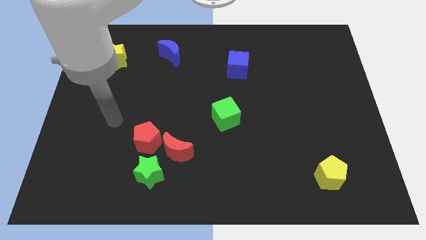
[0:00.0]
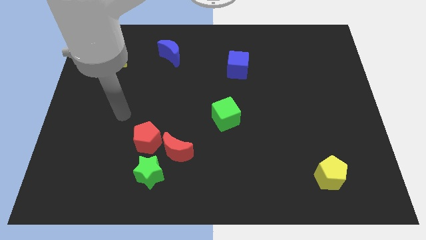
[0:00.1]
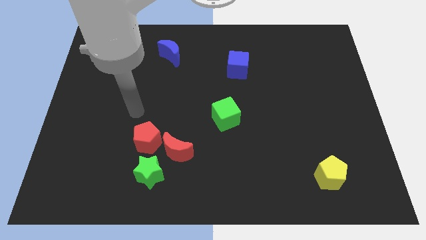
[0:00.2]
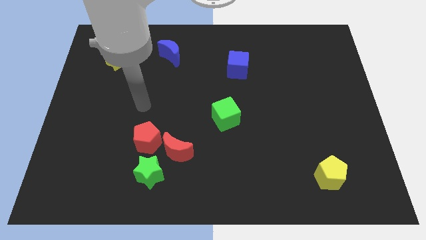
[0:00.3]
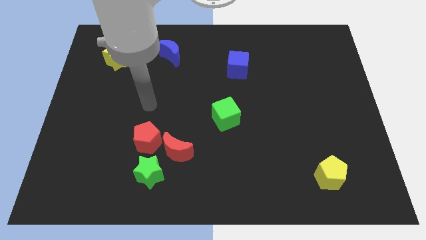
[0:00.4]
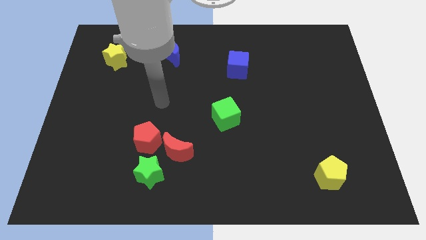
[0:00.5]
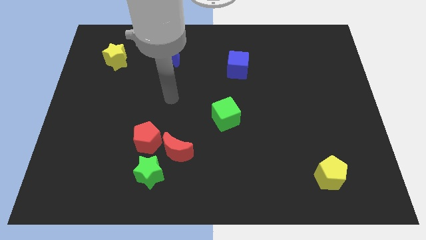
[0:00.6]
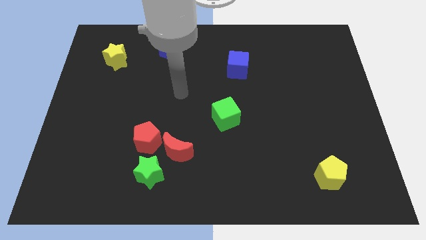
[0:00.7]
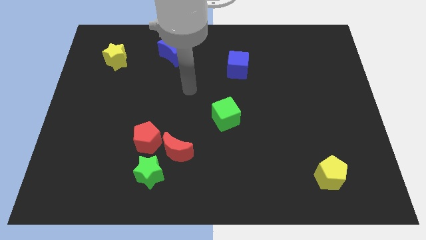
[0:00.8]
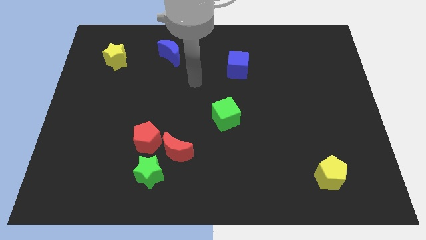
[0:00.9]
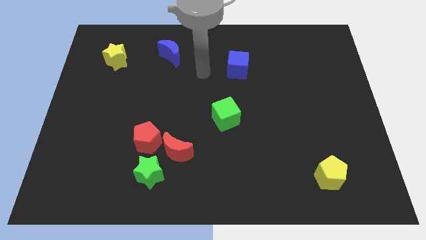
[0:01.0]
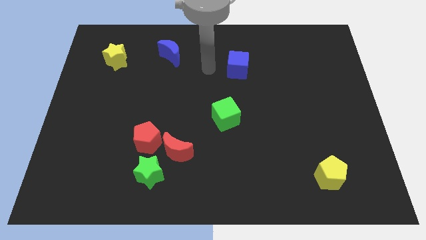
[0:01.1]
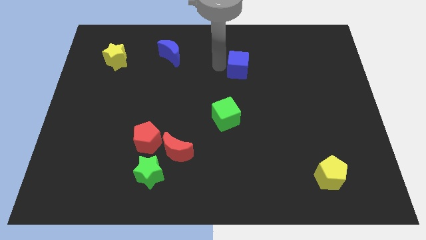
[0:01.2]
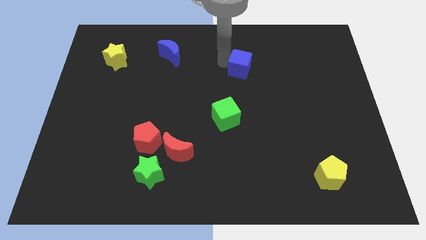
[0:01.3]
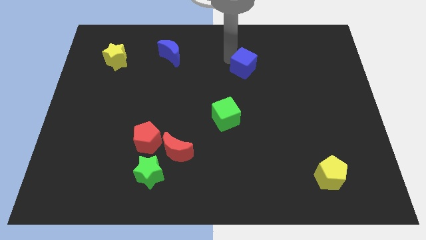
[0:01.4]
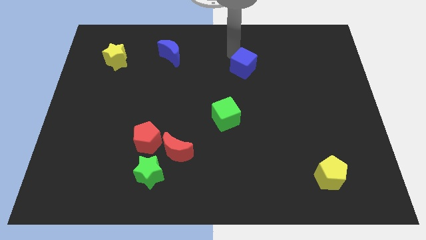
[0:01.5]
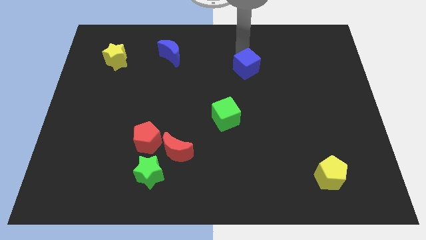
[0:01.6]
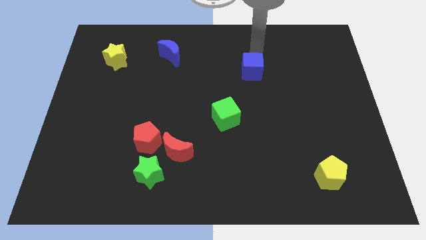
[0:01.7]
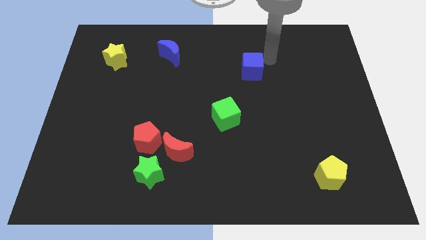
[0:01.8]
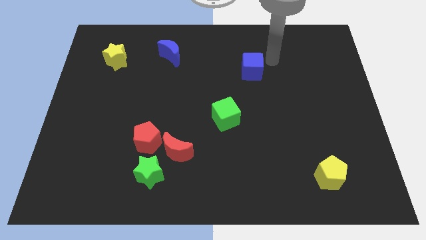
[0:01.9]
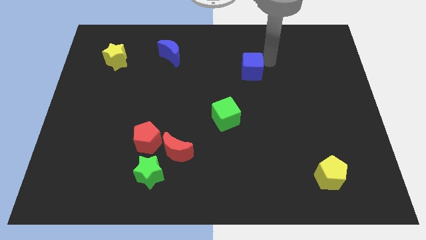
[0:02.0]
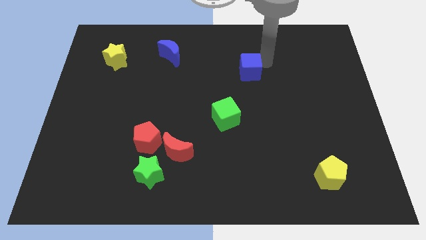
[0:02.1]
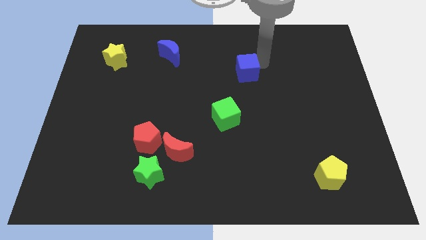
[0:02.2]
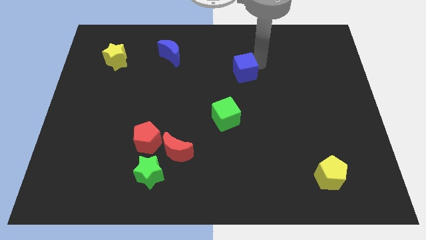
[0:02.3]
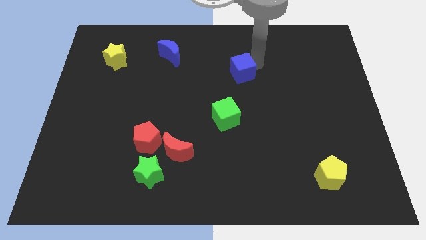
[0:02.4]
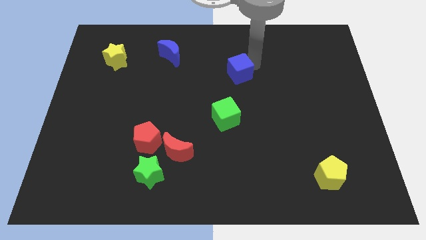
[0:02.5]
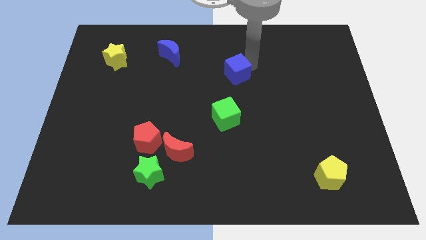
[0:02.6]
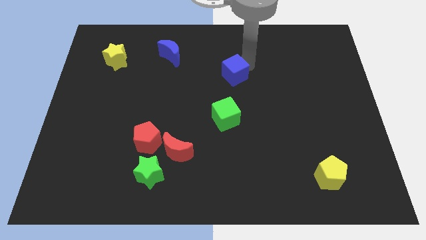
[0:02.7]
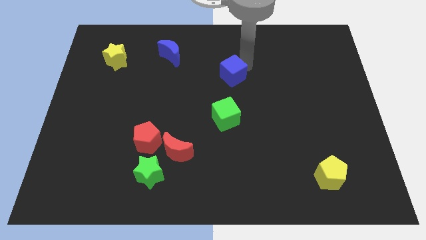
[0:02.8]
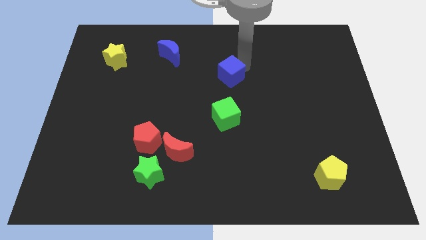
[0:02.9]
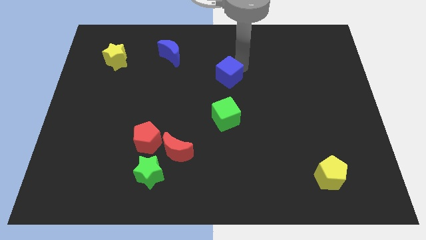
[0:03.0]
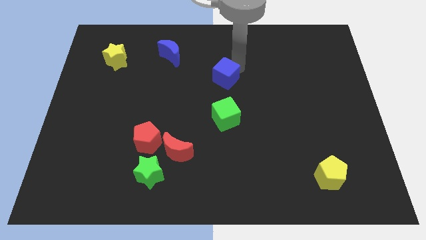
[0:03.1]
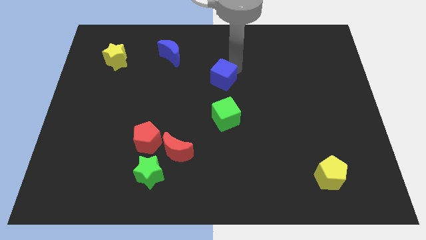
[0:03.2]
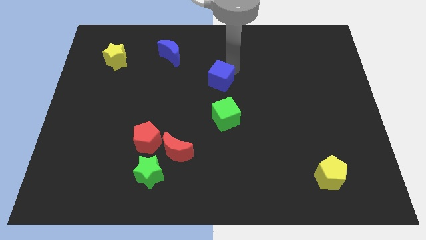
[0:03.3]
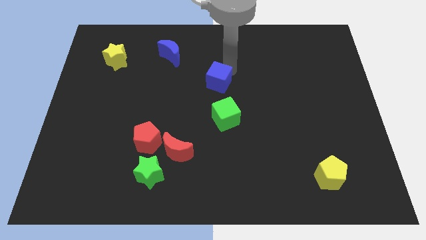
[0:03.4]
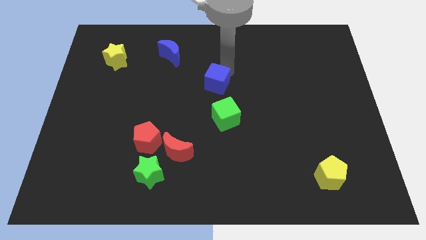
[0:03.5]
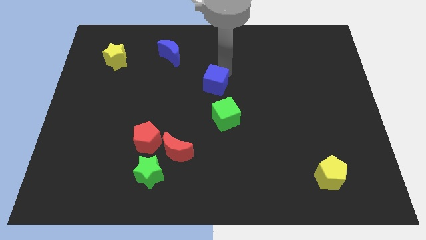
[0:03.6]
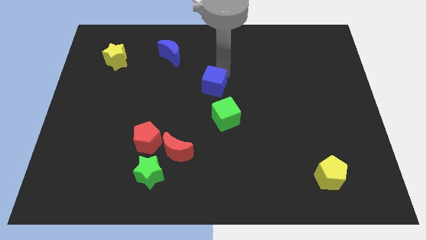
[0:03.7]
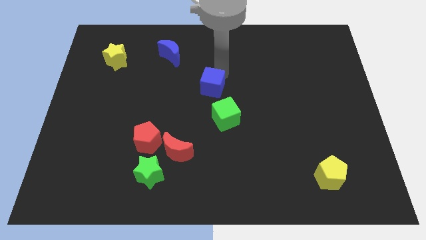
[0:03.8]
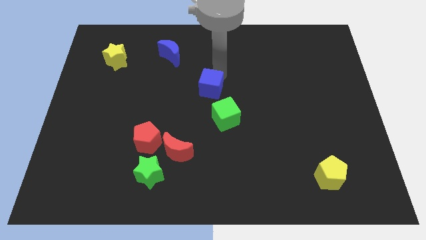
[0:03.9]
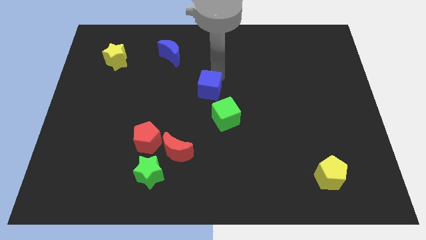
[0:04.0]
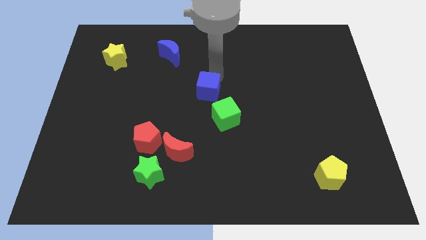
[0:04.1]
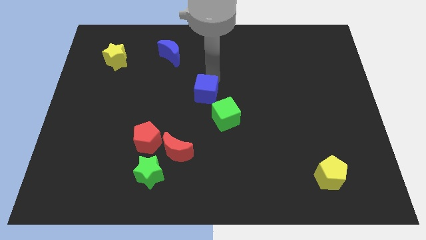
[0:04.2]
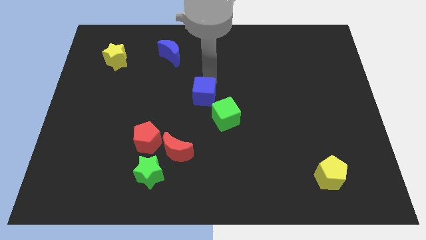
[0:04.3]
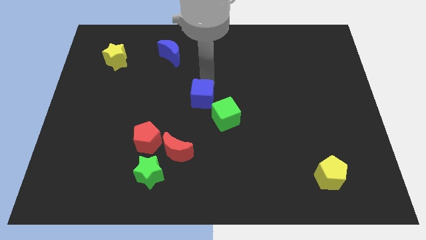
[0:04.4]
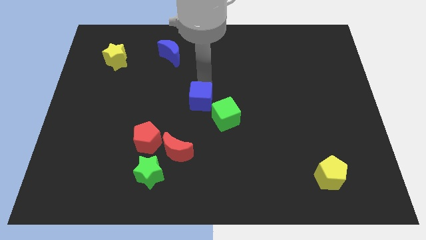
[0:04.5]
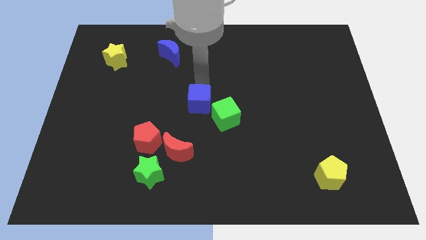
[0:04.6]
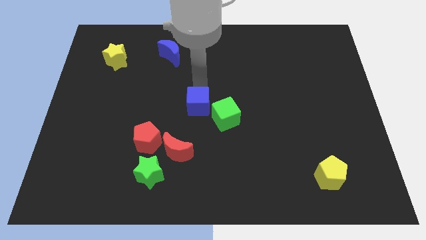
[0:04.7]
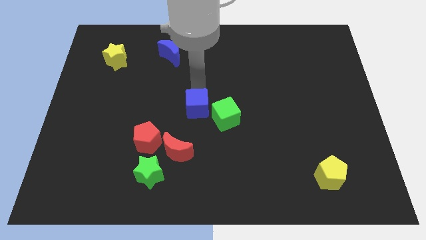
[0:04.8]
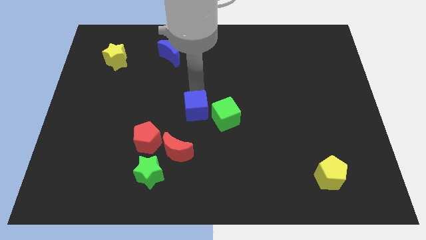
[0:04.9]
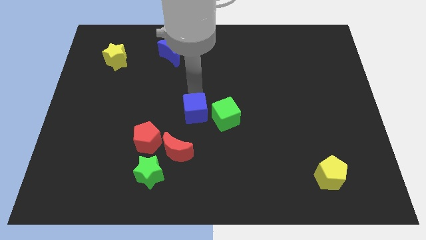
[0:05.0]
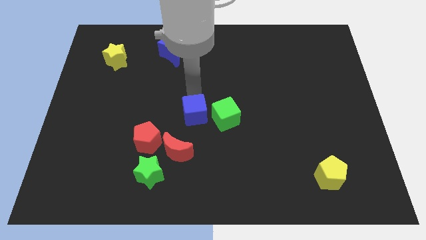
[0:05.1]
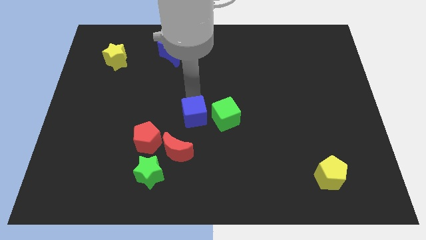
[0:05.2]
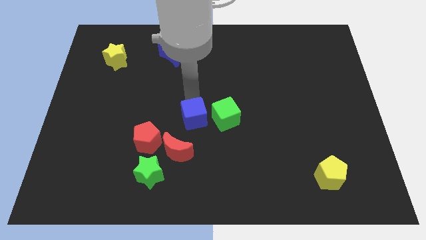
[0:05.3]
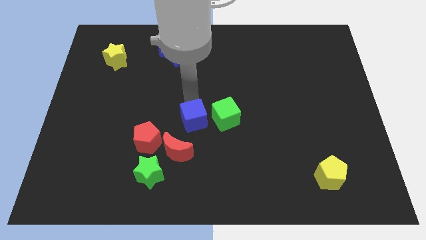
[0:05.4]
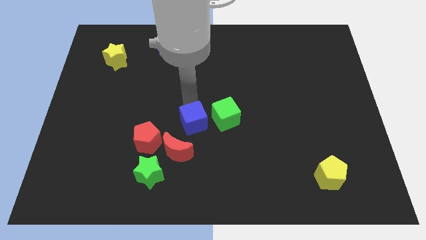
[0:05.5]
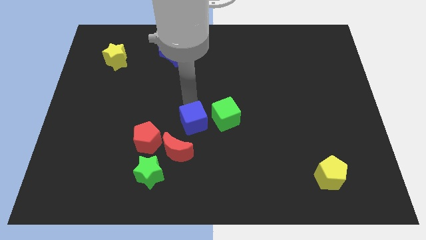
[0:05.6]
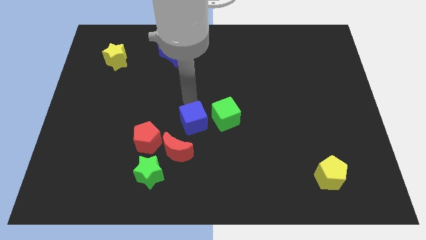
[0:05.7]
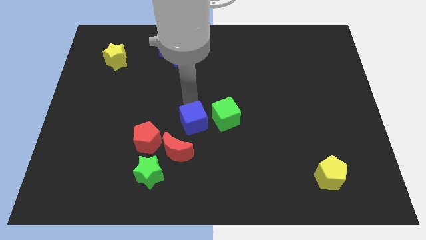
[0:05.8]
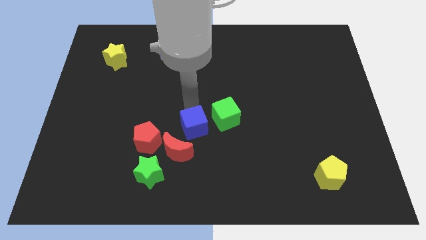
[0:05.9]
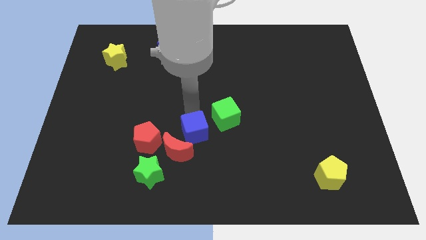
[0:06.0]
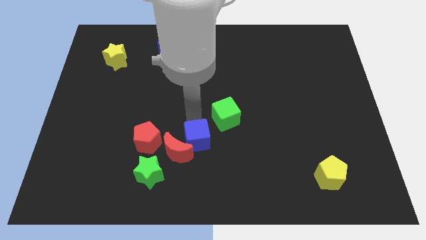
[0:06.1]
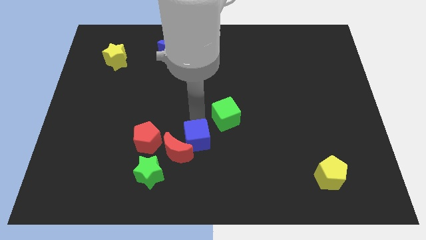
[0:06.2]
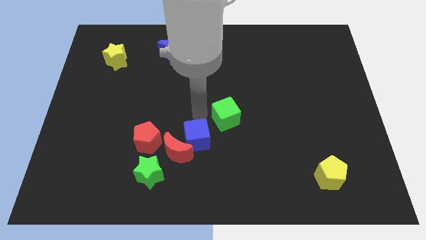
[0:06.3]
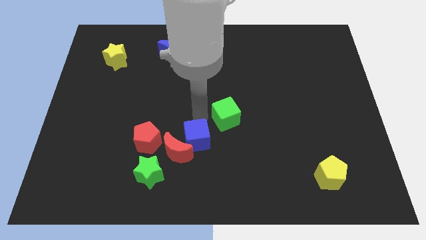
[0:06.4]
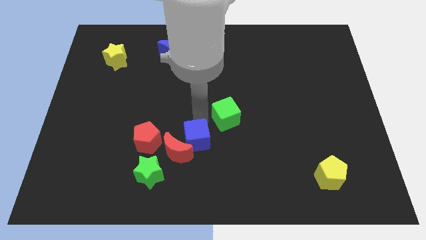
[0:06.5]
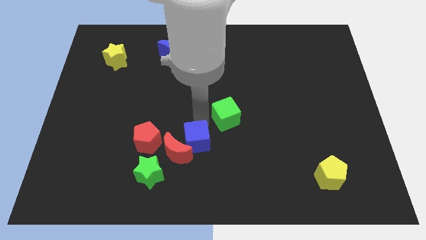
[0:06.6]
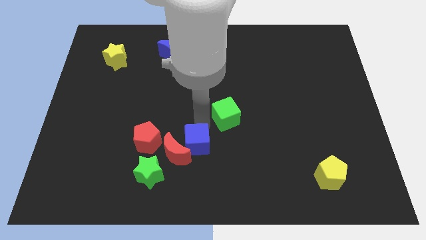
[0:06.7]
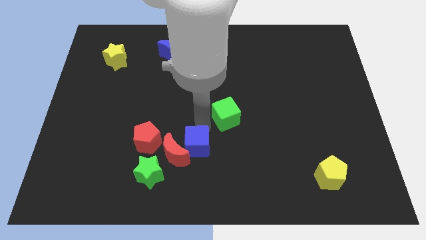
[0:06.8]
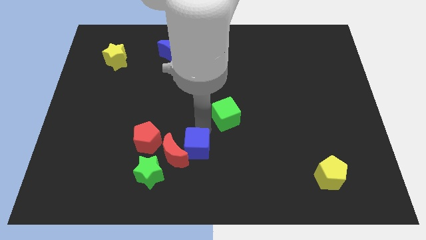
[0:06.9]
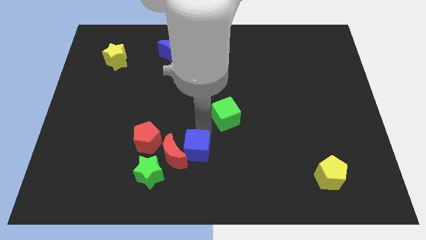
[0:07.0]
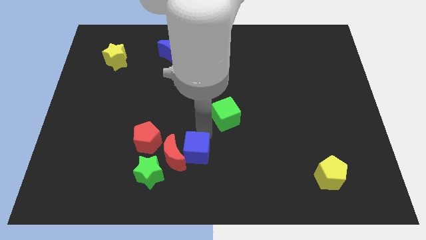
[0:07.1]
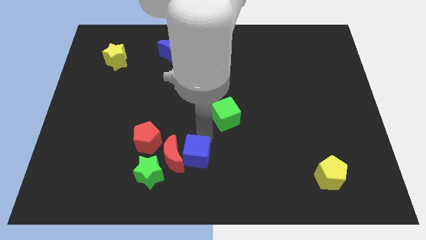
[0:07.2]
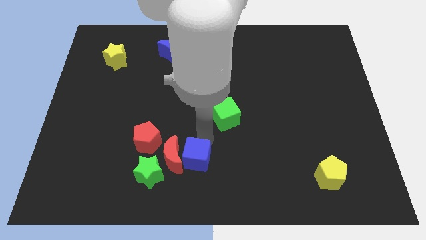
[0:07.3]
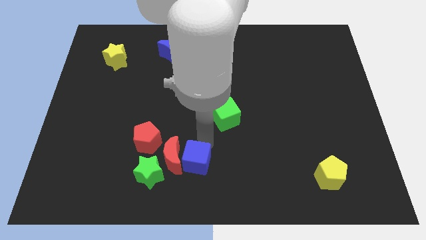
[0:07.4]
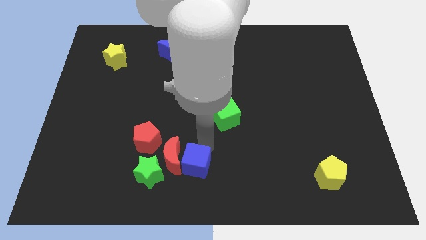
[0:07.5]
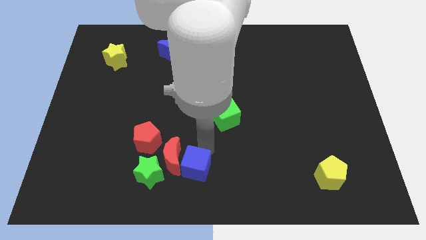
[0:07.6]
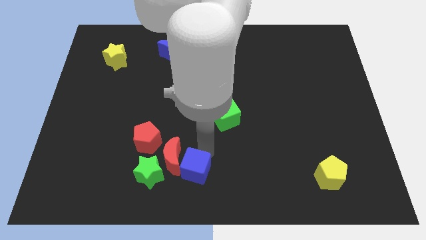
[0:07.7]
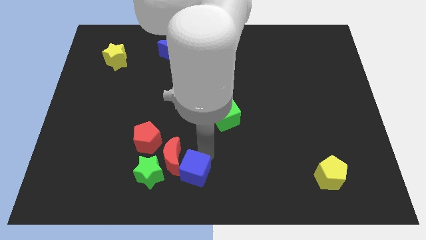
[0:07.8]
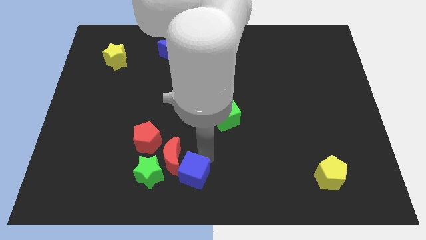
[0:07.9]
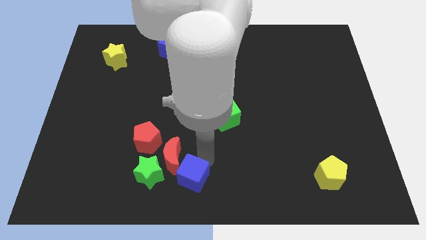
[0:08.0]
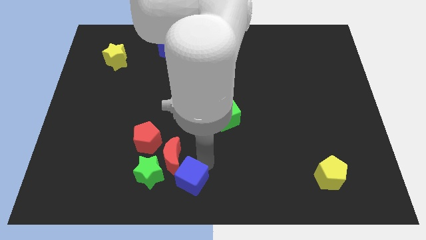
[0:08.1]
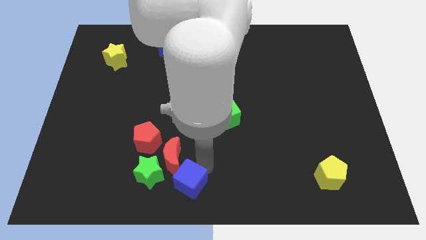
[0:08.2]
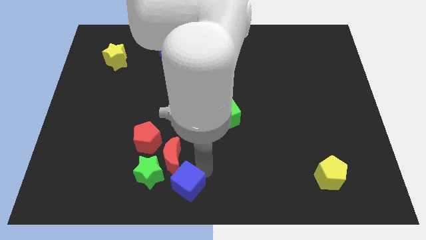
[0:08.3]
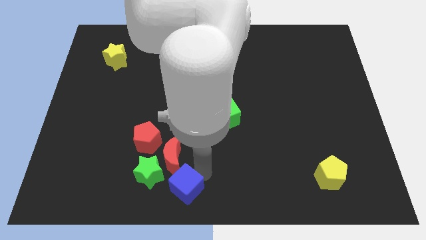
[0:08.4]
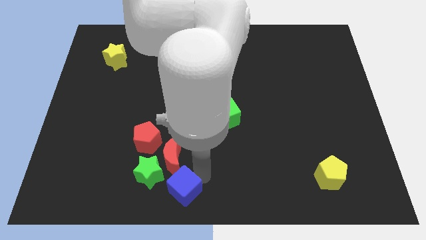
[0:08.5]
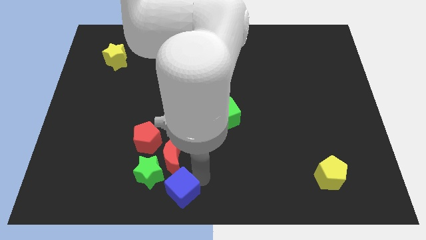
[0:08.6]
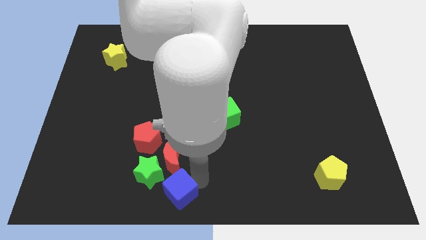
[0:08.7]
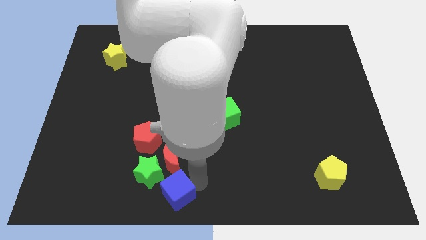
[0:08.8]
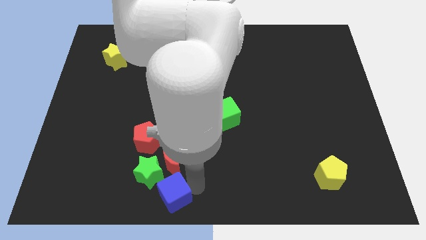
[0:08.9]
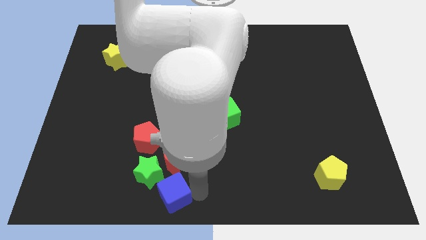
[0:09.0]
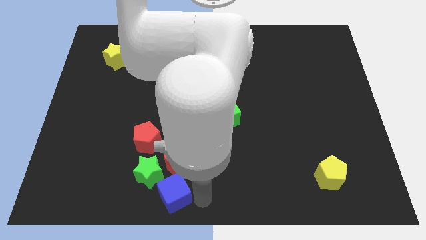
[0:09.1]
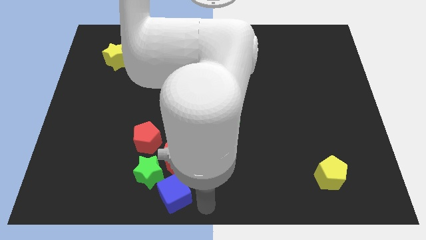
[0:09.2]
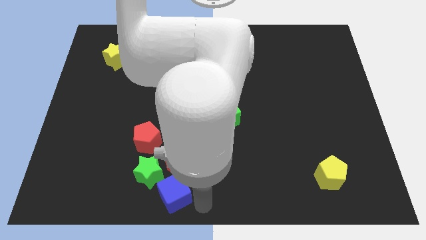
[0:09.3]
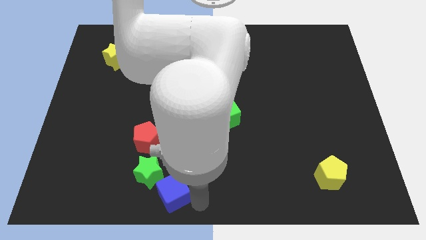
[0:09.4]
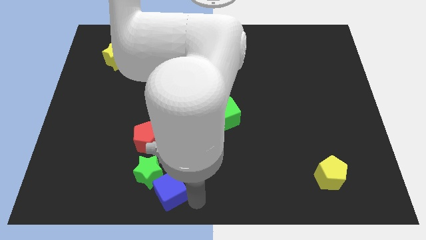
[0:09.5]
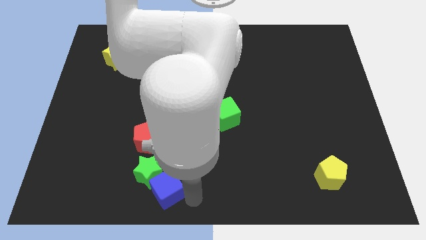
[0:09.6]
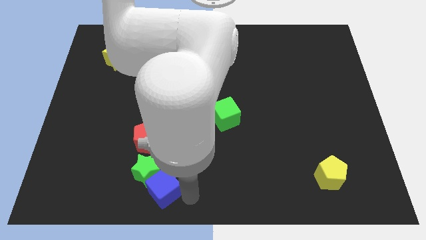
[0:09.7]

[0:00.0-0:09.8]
put the blue cube to the bottom of the red pentagon
